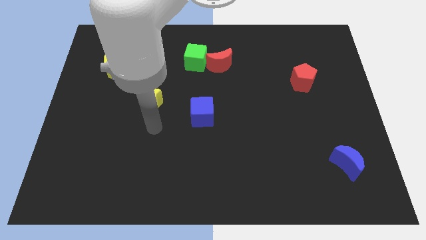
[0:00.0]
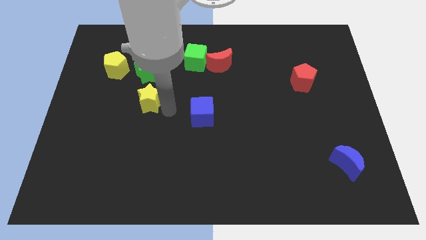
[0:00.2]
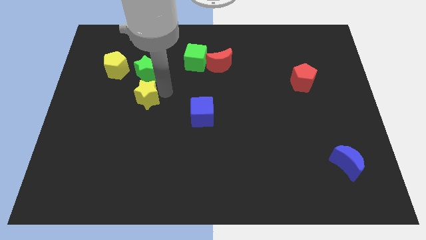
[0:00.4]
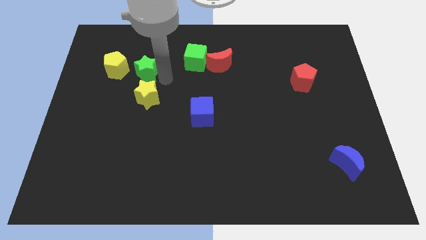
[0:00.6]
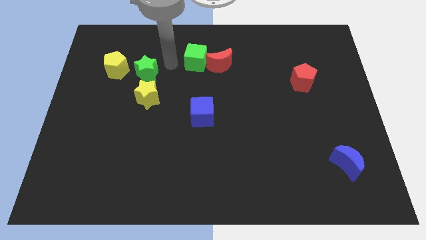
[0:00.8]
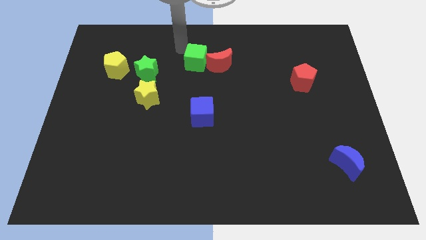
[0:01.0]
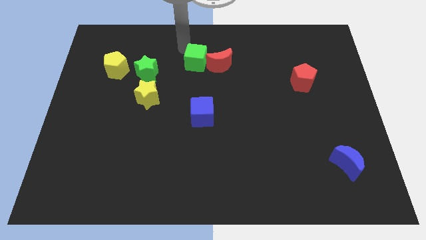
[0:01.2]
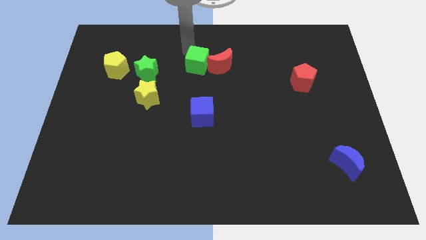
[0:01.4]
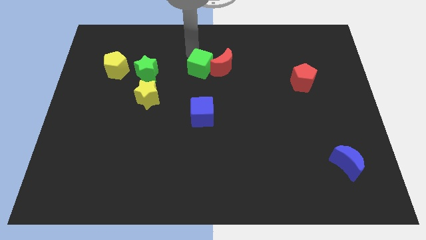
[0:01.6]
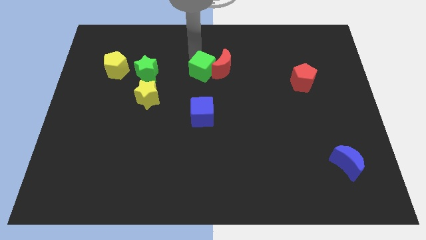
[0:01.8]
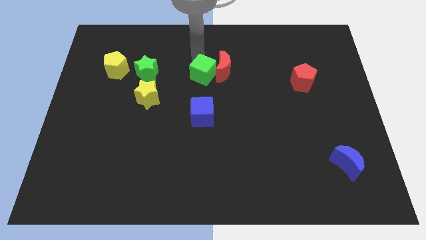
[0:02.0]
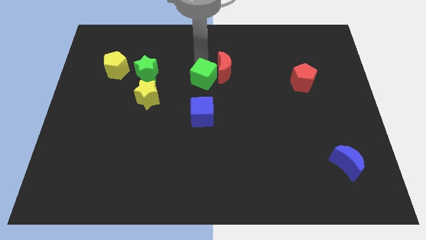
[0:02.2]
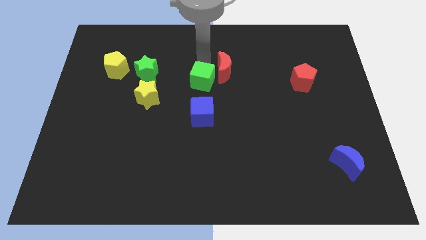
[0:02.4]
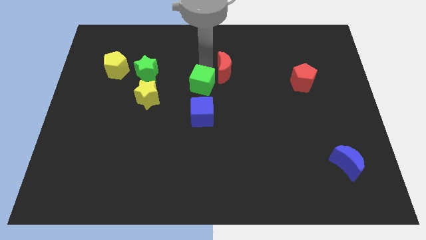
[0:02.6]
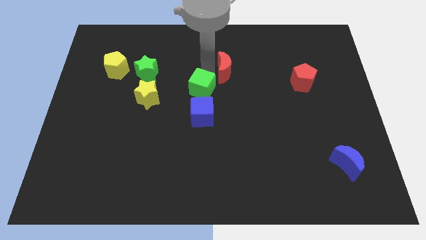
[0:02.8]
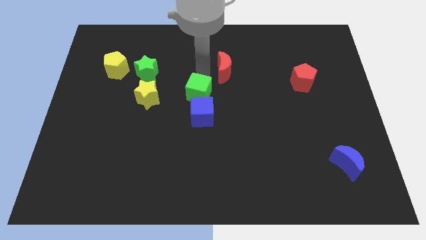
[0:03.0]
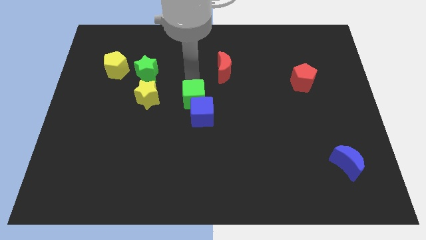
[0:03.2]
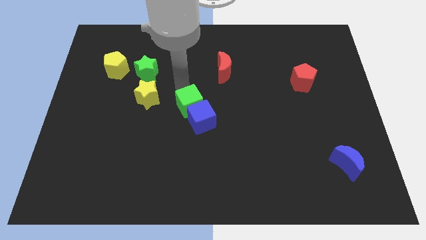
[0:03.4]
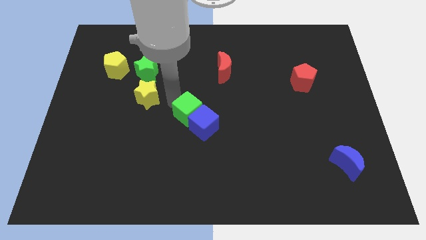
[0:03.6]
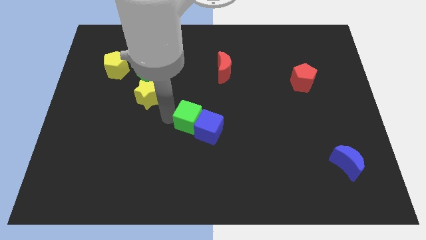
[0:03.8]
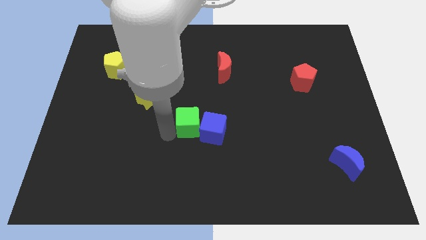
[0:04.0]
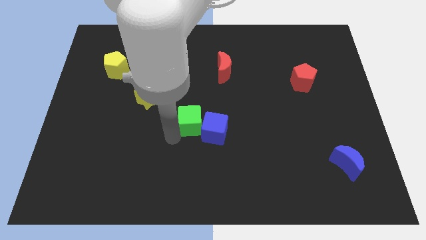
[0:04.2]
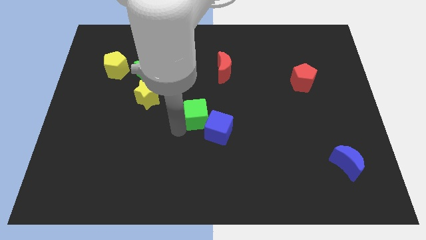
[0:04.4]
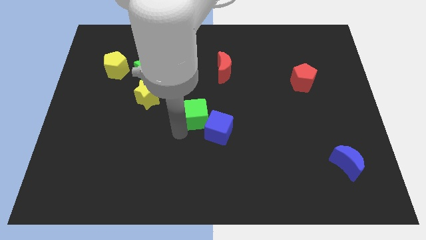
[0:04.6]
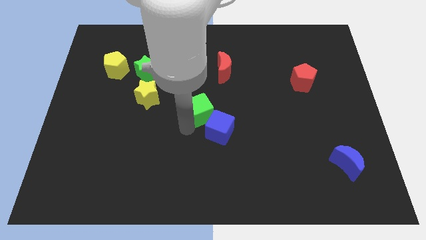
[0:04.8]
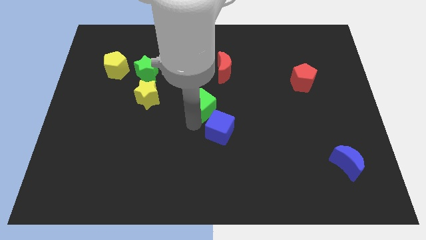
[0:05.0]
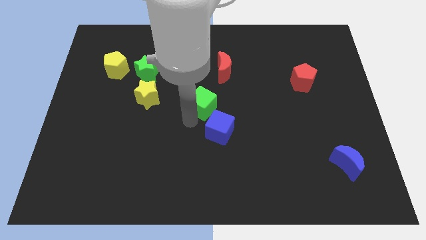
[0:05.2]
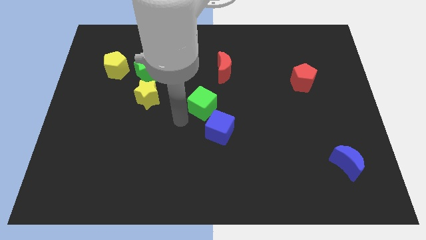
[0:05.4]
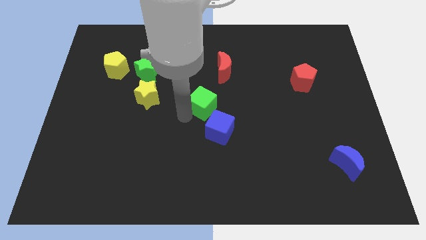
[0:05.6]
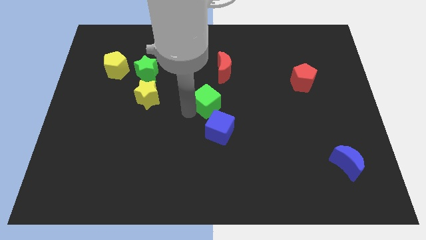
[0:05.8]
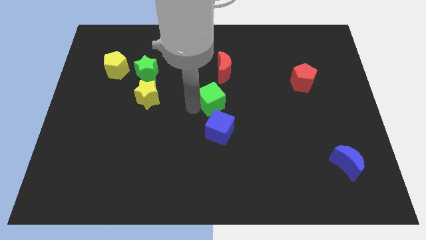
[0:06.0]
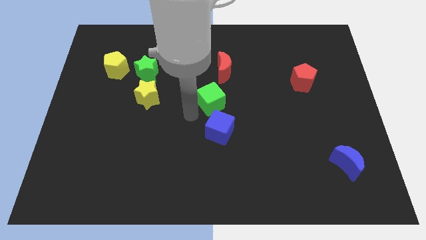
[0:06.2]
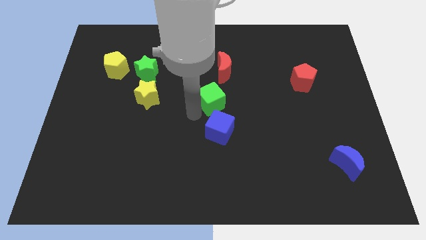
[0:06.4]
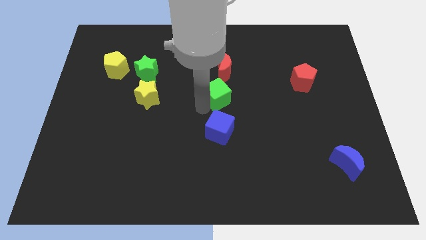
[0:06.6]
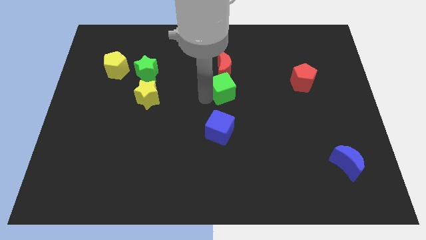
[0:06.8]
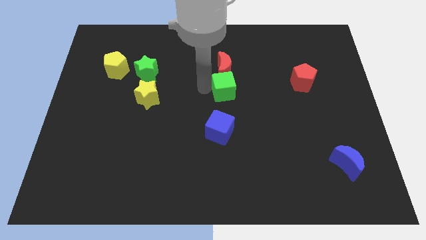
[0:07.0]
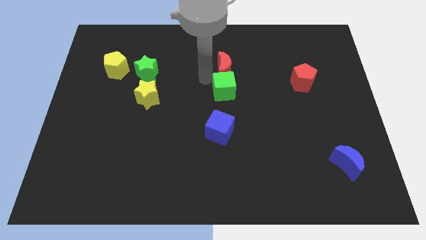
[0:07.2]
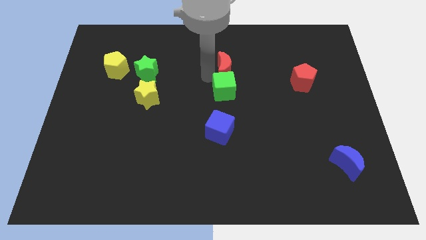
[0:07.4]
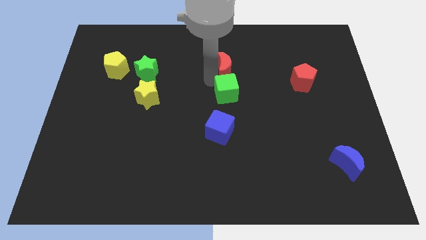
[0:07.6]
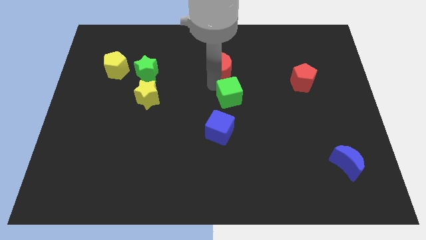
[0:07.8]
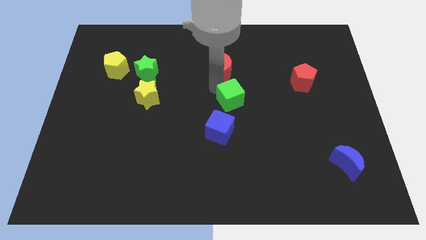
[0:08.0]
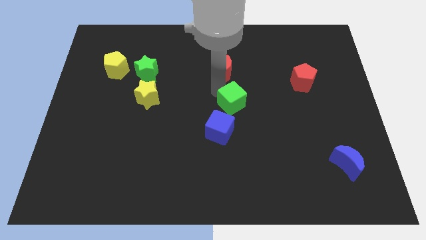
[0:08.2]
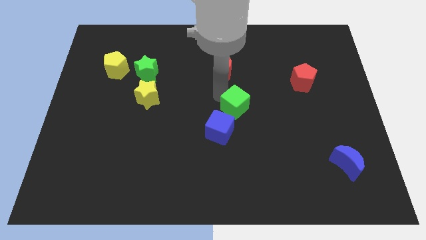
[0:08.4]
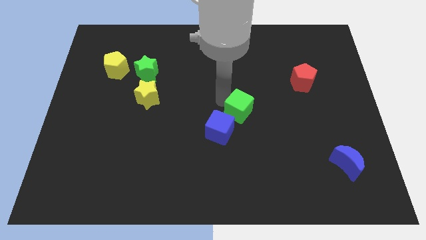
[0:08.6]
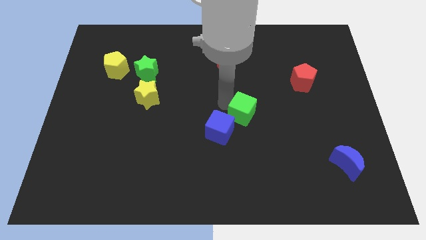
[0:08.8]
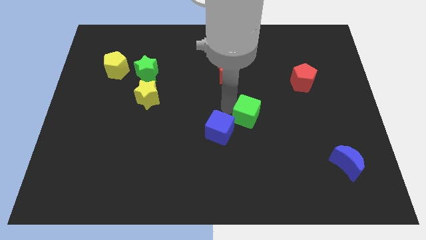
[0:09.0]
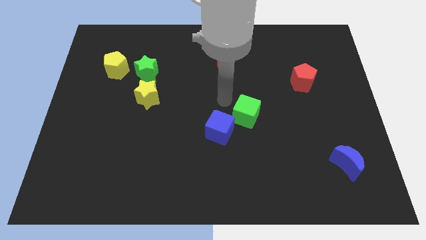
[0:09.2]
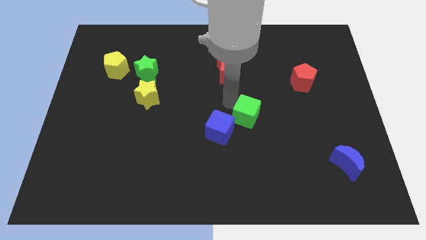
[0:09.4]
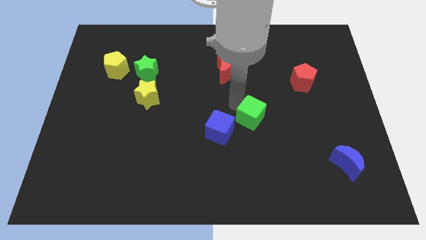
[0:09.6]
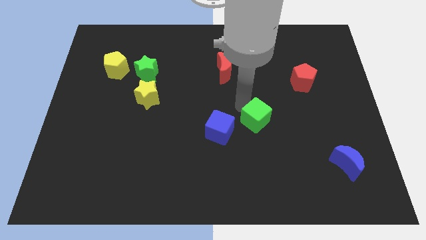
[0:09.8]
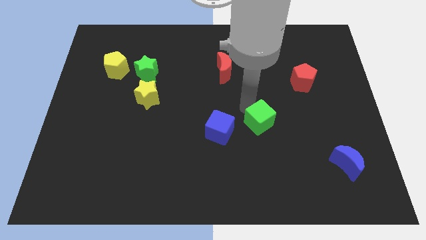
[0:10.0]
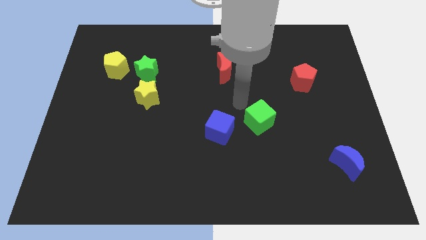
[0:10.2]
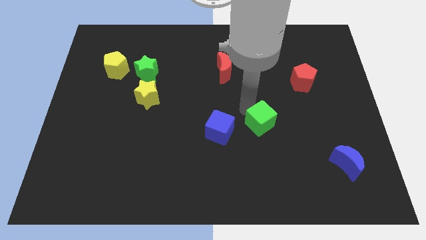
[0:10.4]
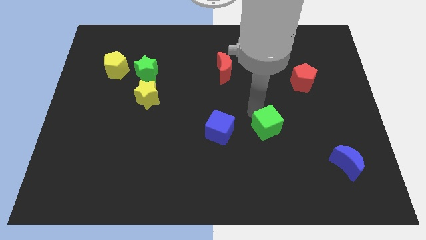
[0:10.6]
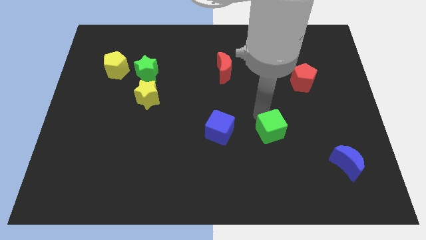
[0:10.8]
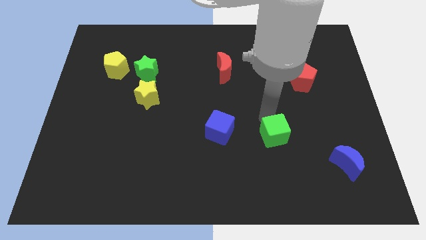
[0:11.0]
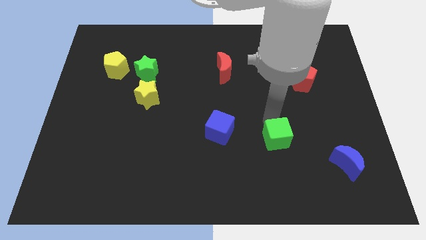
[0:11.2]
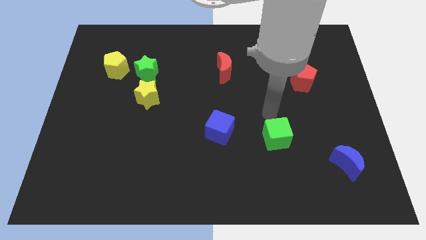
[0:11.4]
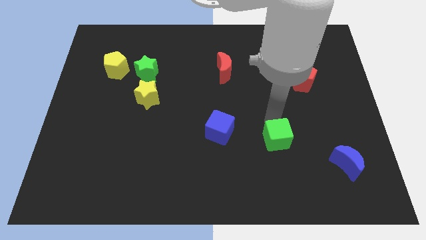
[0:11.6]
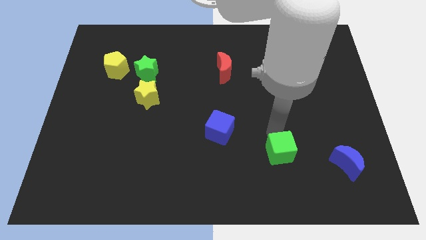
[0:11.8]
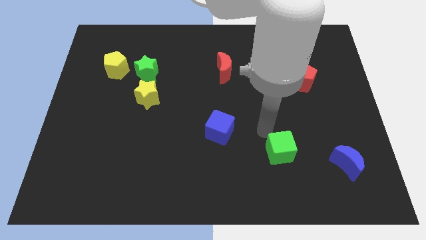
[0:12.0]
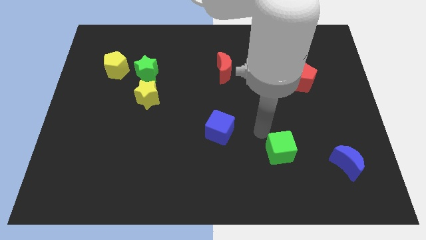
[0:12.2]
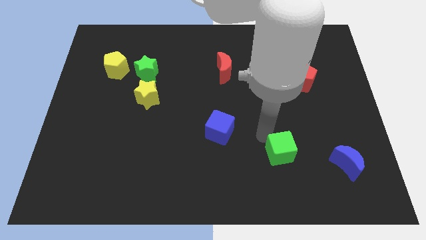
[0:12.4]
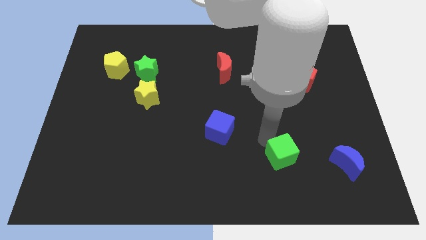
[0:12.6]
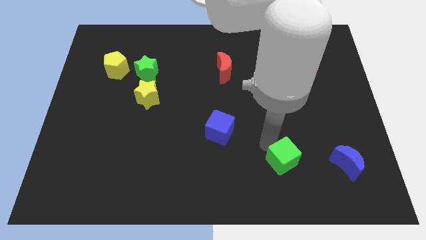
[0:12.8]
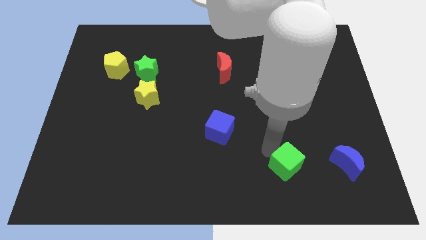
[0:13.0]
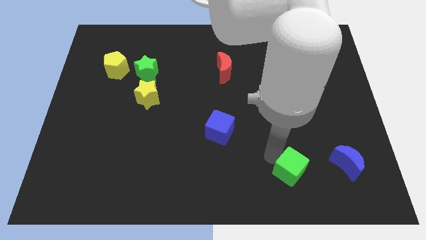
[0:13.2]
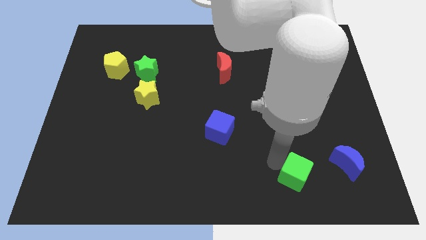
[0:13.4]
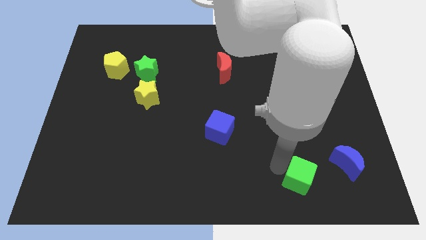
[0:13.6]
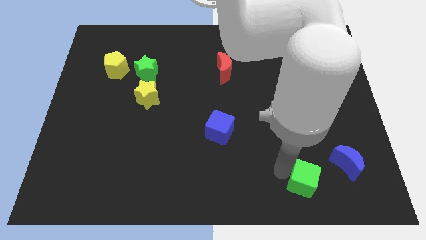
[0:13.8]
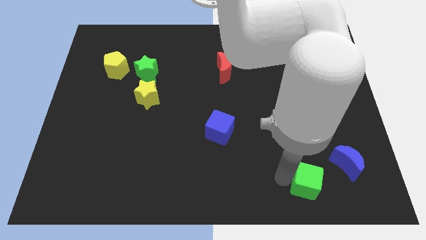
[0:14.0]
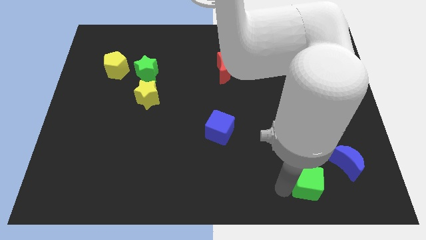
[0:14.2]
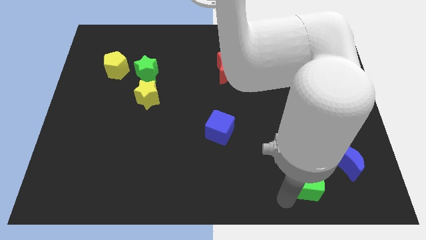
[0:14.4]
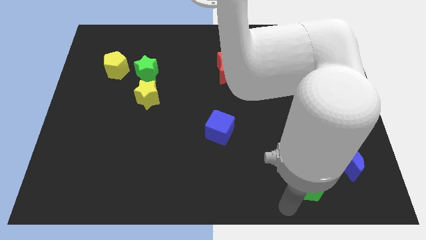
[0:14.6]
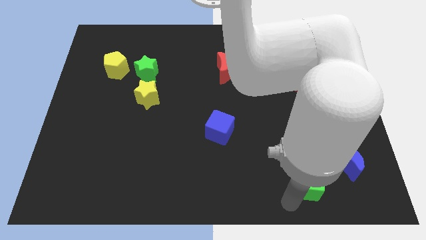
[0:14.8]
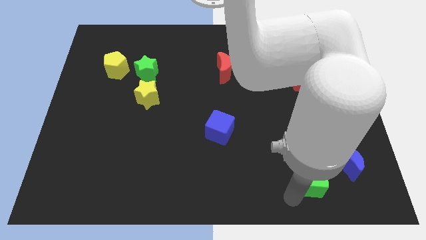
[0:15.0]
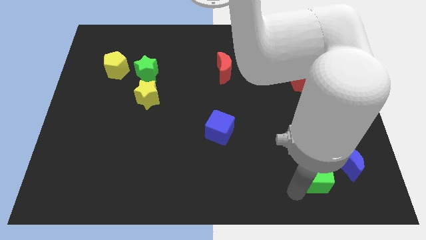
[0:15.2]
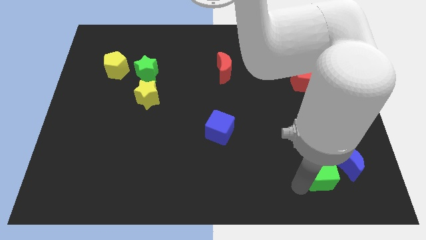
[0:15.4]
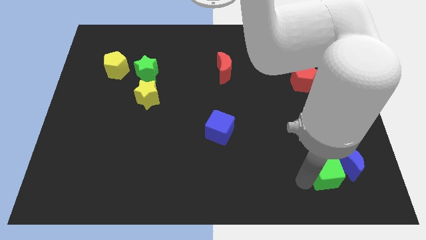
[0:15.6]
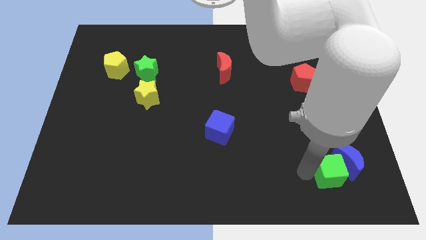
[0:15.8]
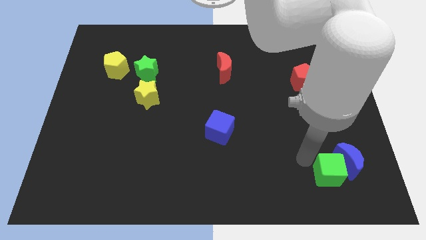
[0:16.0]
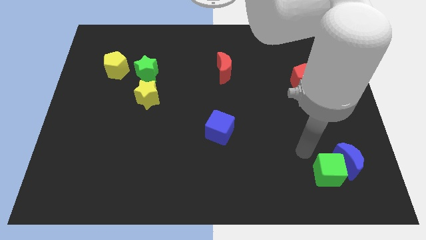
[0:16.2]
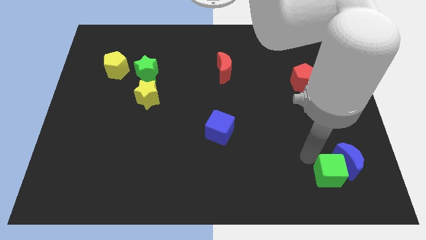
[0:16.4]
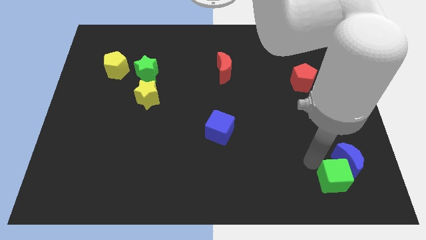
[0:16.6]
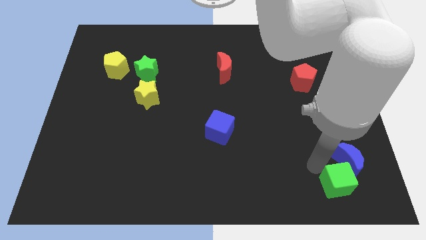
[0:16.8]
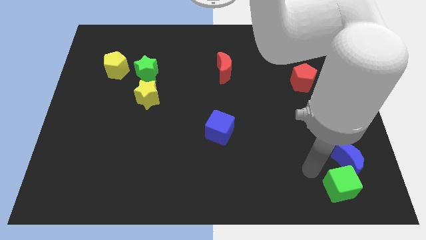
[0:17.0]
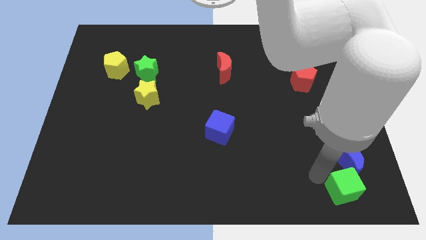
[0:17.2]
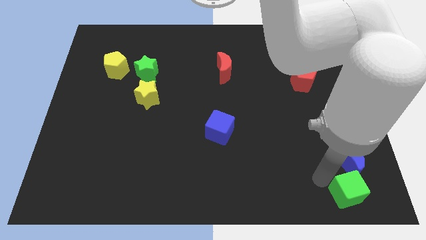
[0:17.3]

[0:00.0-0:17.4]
move the green cube to the bottom right corner
